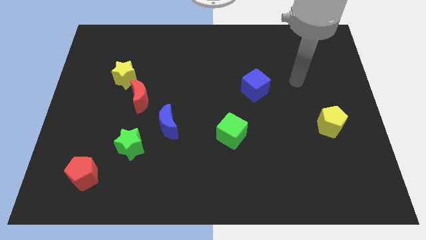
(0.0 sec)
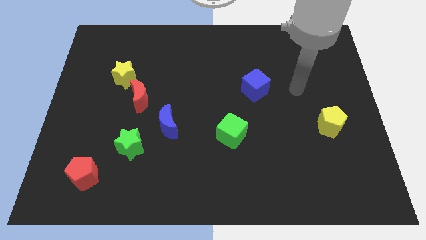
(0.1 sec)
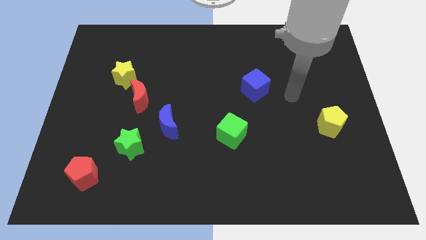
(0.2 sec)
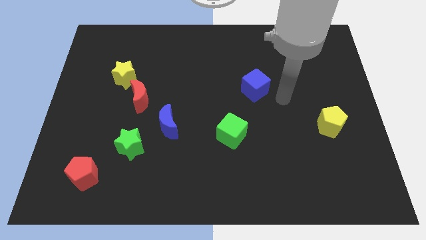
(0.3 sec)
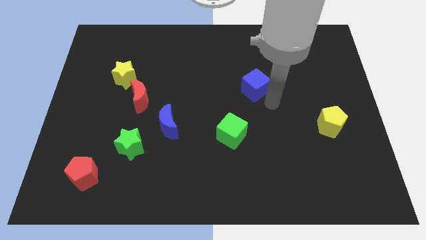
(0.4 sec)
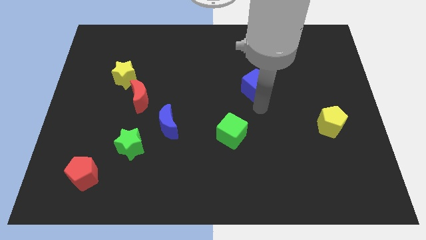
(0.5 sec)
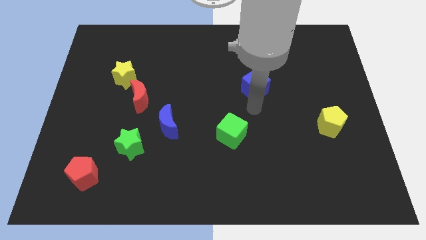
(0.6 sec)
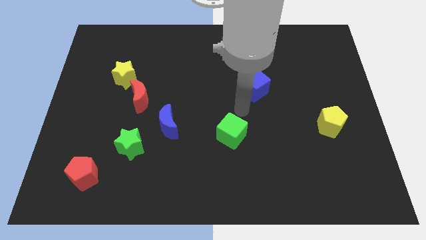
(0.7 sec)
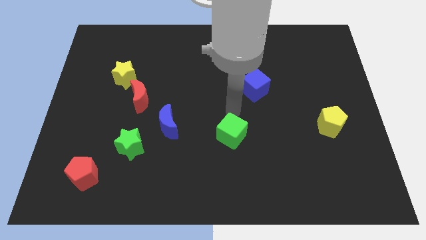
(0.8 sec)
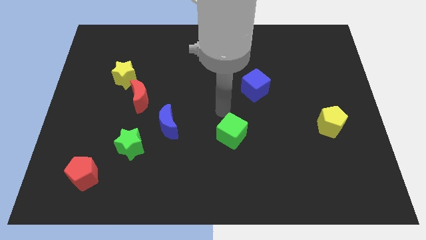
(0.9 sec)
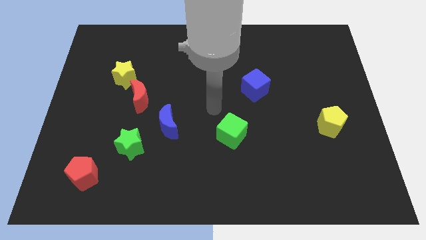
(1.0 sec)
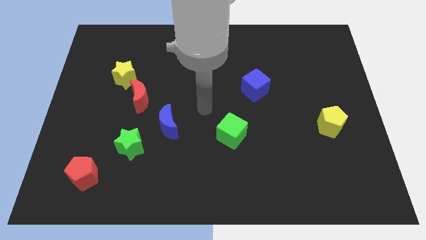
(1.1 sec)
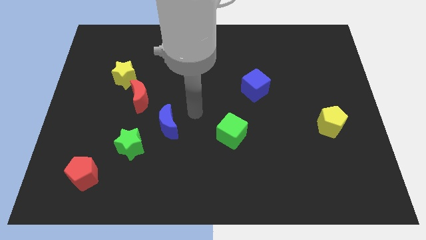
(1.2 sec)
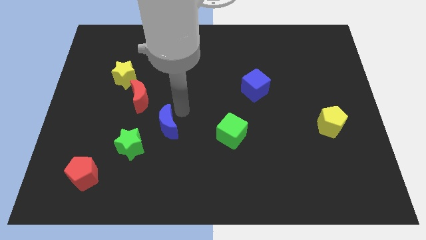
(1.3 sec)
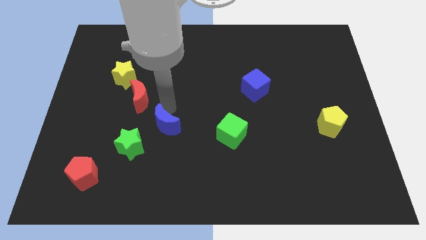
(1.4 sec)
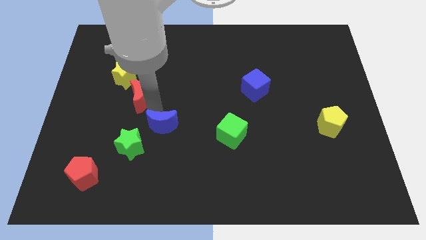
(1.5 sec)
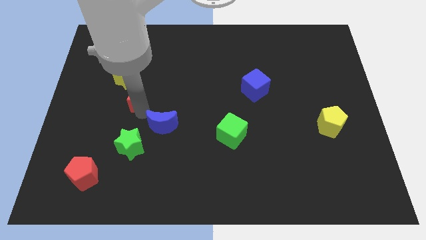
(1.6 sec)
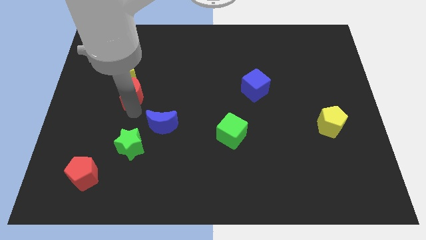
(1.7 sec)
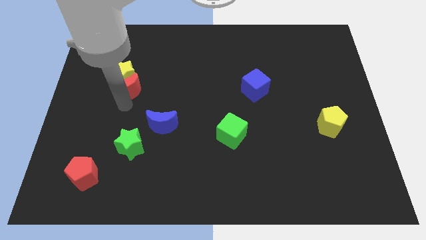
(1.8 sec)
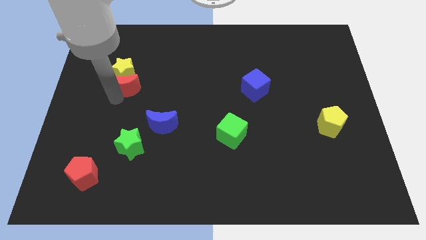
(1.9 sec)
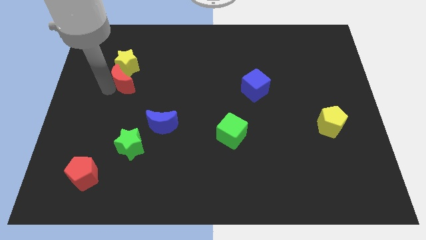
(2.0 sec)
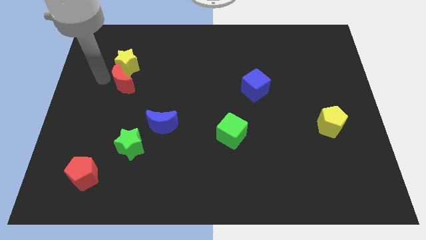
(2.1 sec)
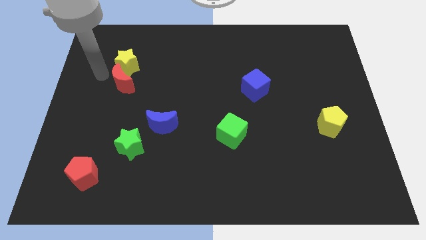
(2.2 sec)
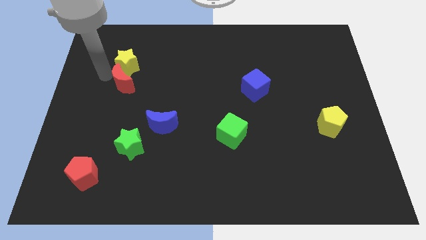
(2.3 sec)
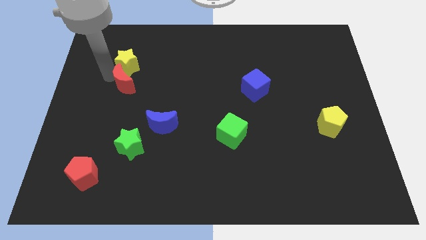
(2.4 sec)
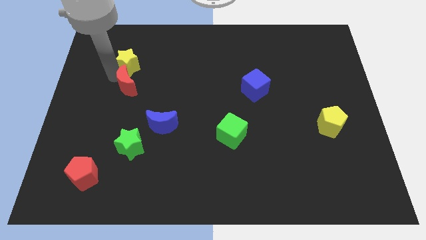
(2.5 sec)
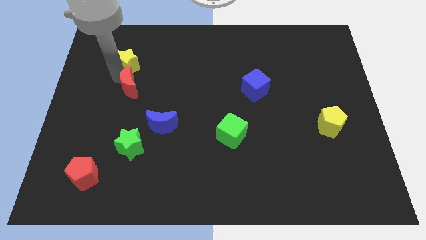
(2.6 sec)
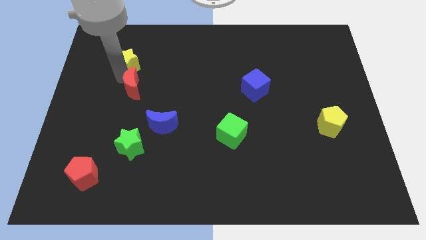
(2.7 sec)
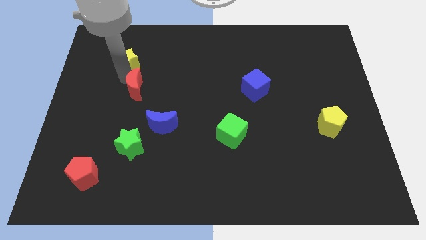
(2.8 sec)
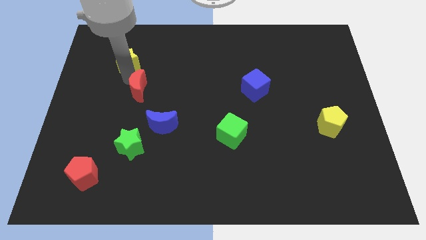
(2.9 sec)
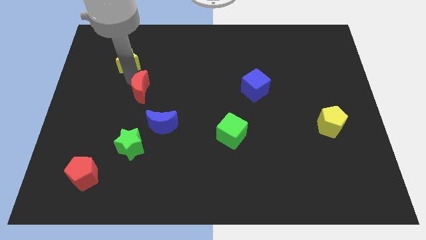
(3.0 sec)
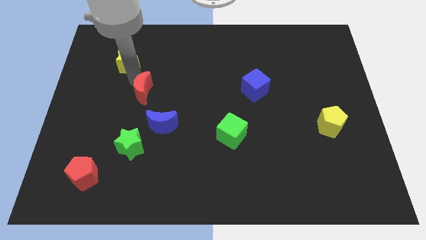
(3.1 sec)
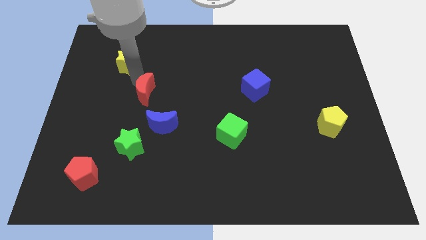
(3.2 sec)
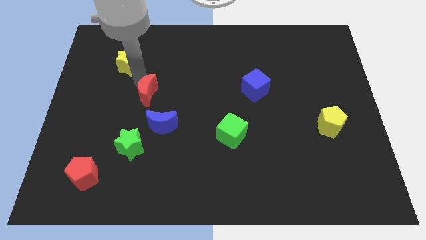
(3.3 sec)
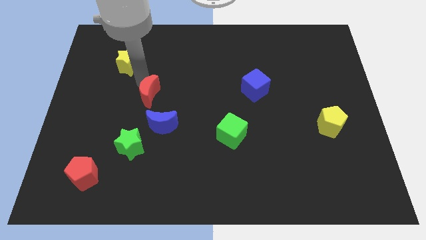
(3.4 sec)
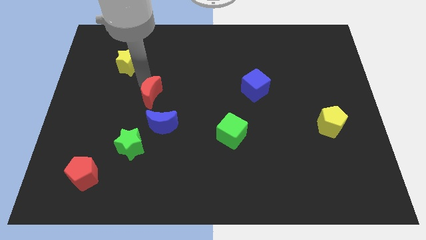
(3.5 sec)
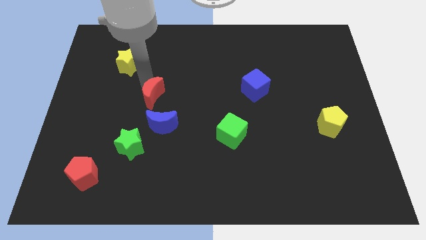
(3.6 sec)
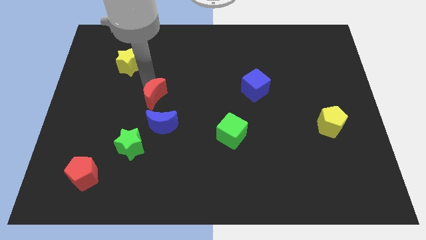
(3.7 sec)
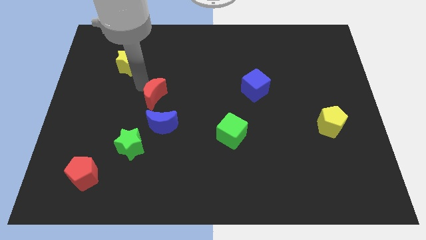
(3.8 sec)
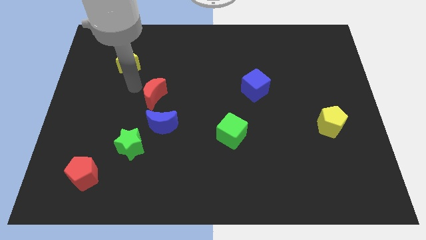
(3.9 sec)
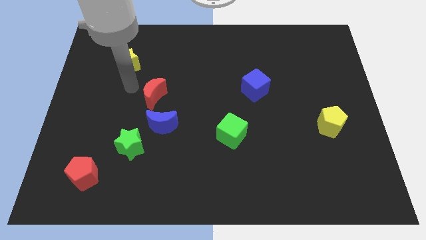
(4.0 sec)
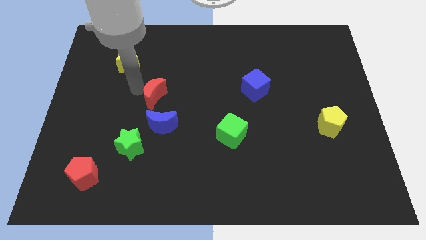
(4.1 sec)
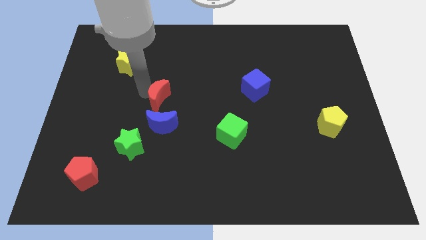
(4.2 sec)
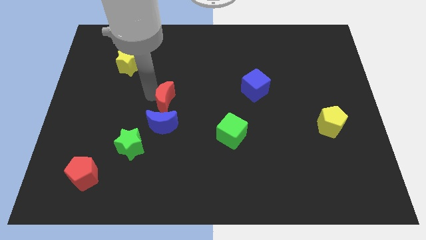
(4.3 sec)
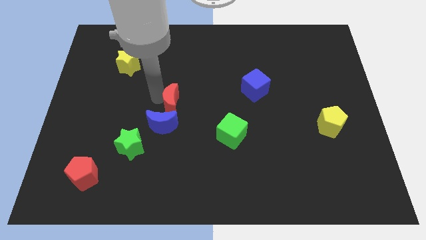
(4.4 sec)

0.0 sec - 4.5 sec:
slightly move the red moon to the right

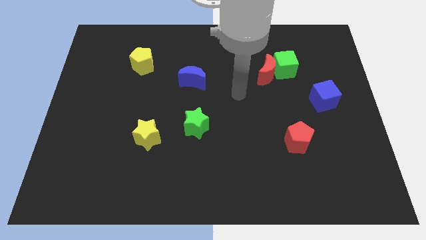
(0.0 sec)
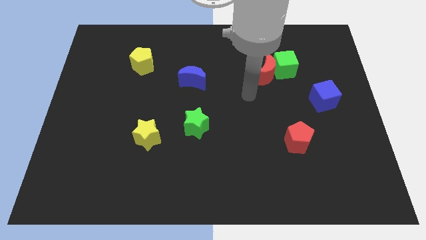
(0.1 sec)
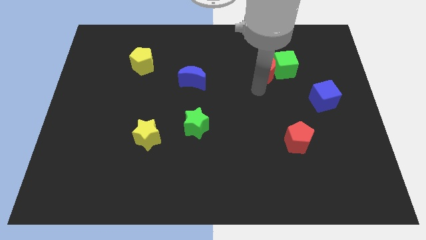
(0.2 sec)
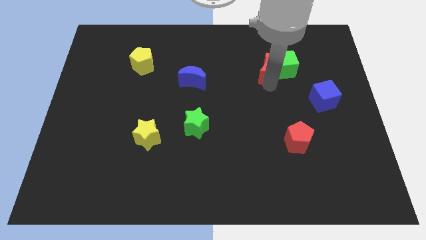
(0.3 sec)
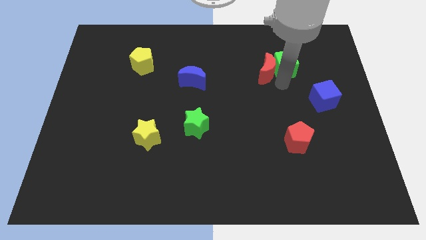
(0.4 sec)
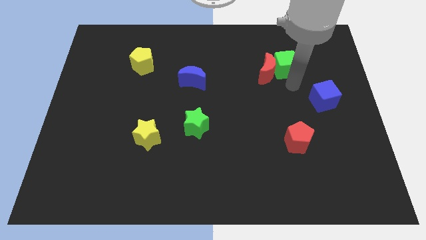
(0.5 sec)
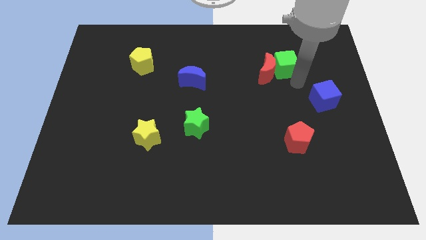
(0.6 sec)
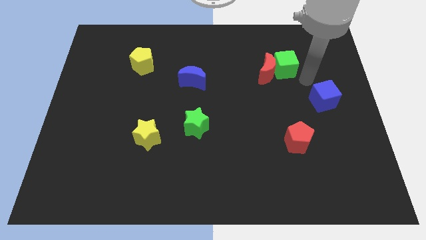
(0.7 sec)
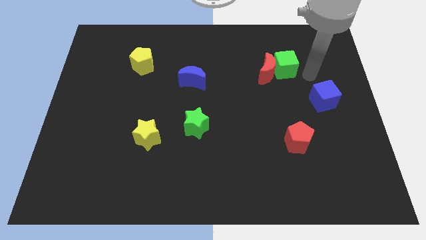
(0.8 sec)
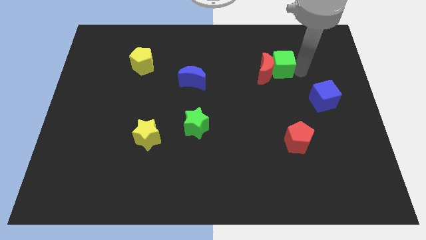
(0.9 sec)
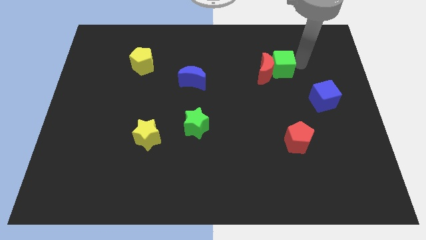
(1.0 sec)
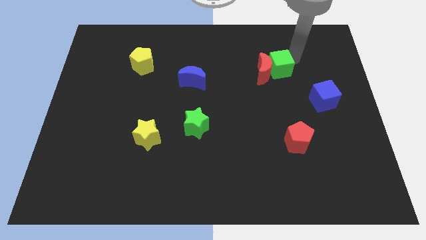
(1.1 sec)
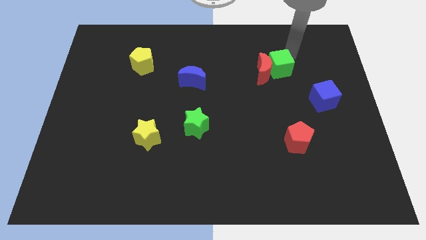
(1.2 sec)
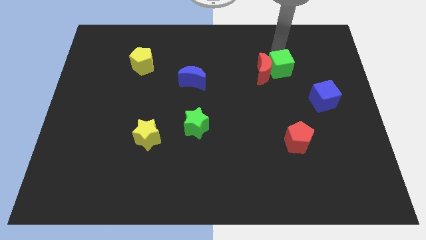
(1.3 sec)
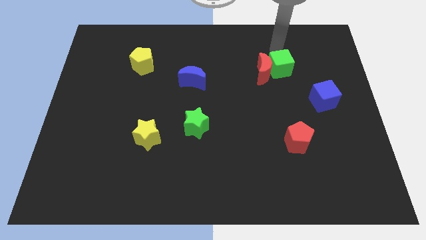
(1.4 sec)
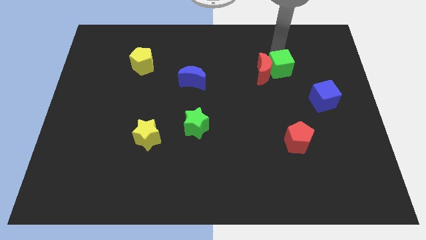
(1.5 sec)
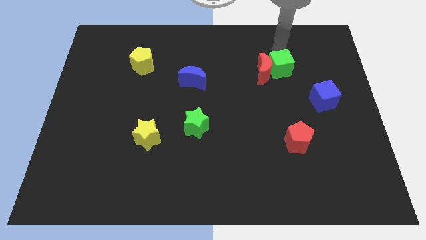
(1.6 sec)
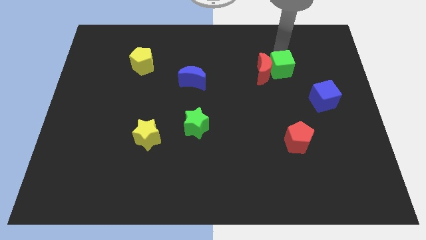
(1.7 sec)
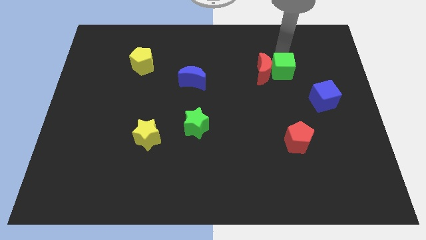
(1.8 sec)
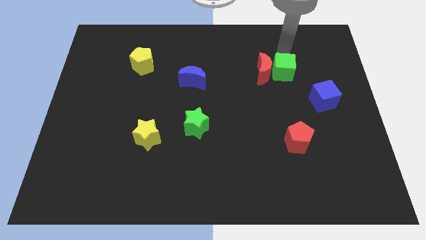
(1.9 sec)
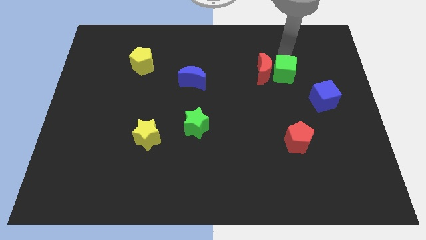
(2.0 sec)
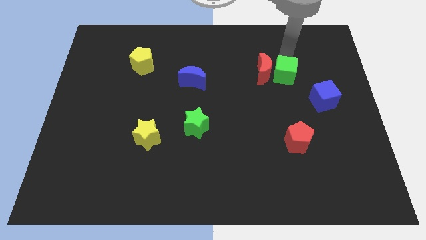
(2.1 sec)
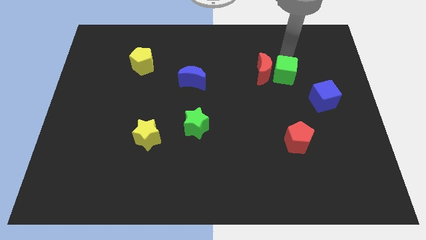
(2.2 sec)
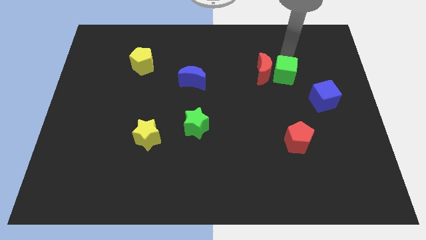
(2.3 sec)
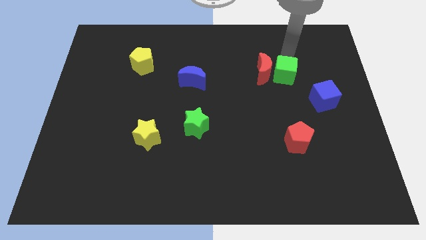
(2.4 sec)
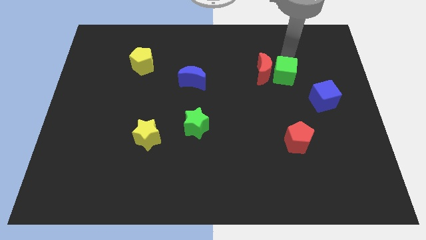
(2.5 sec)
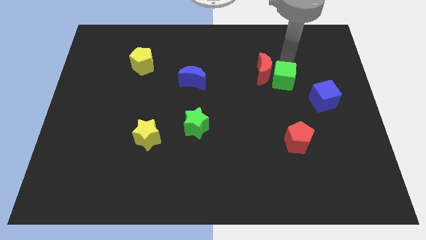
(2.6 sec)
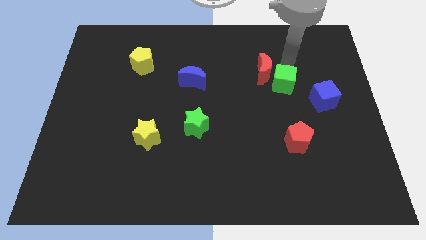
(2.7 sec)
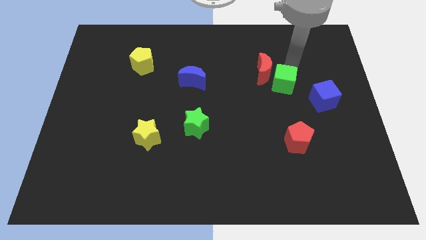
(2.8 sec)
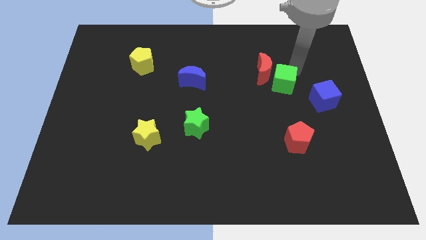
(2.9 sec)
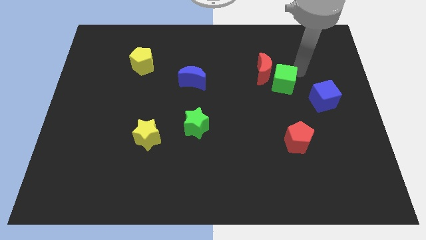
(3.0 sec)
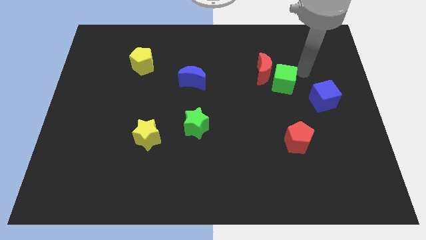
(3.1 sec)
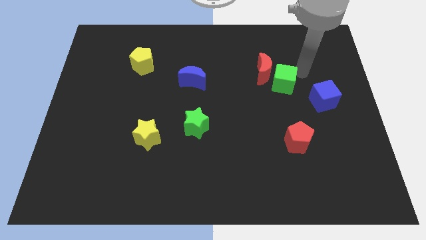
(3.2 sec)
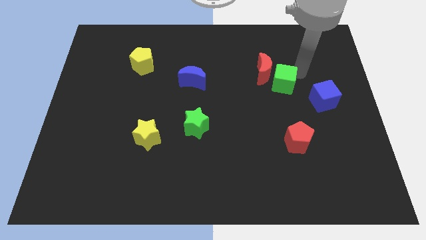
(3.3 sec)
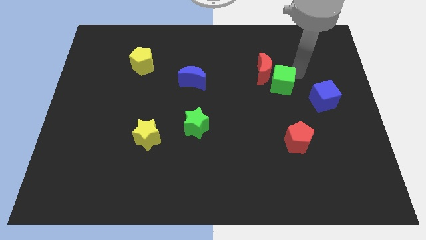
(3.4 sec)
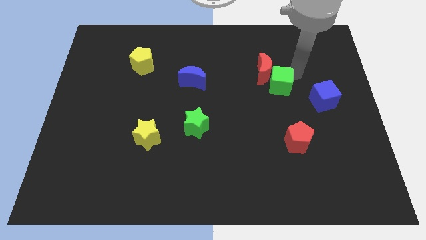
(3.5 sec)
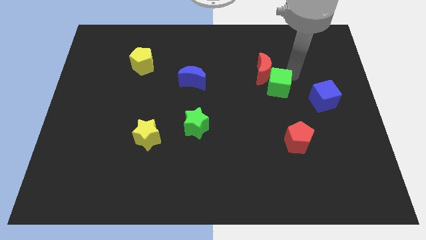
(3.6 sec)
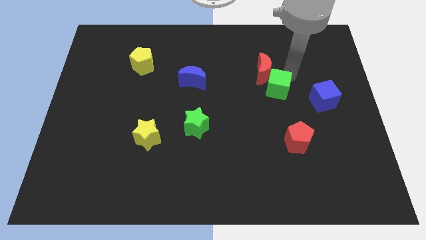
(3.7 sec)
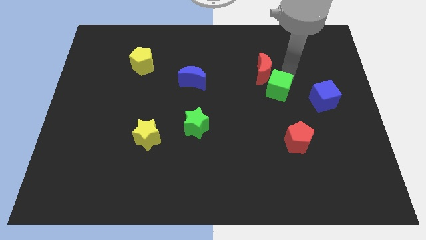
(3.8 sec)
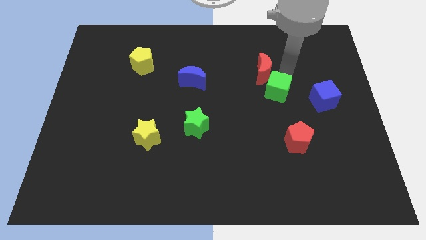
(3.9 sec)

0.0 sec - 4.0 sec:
move the green cube slightly downwards and then left
